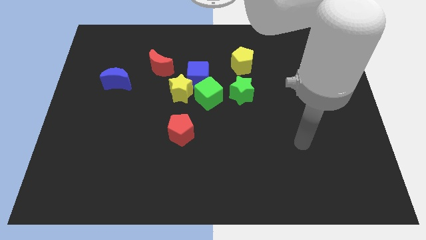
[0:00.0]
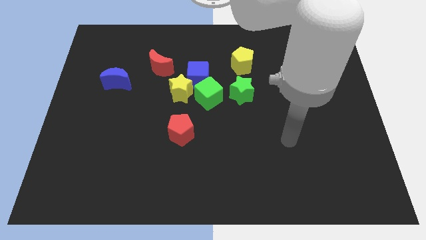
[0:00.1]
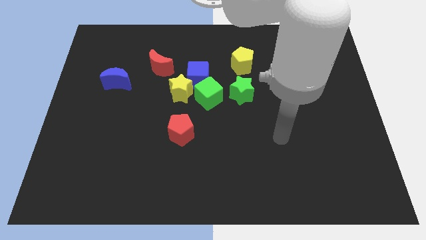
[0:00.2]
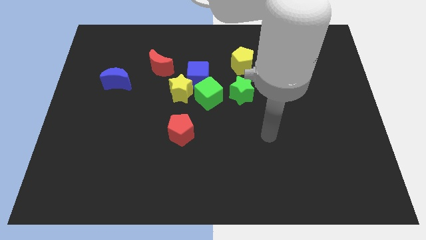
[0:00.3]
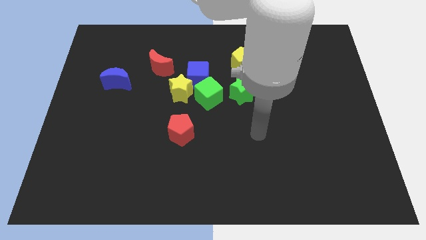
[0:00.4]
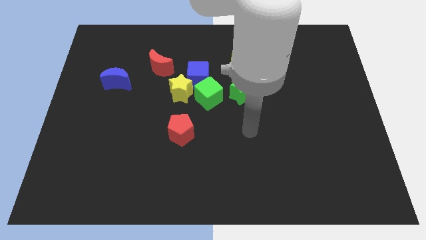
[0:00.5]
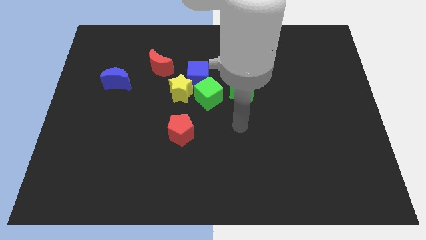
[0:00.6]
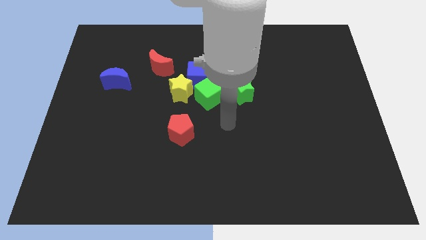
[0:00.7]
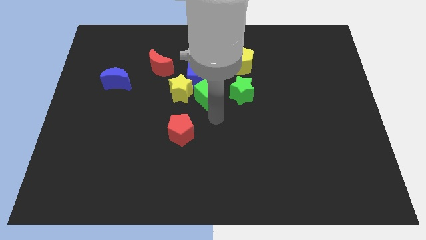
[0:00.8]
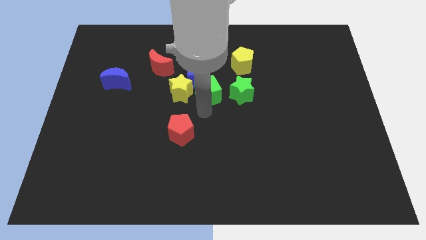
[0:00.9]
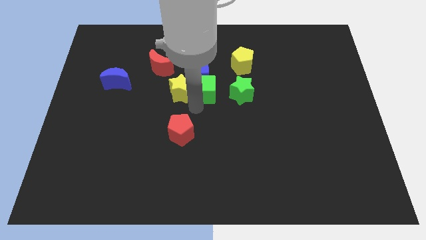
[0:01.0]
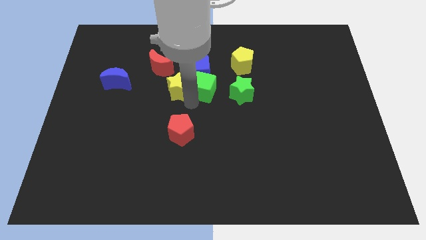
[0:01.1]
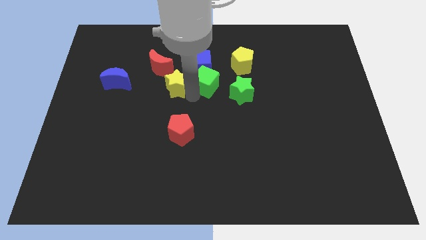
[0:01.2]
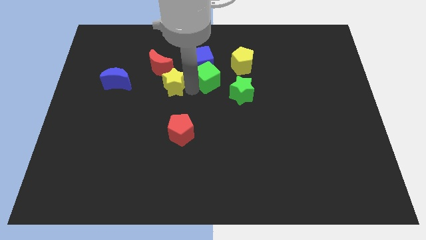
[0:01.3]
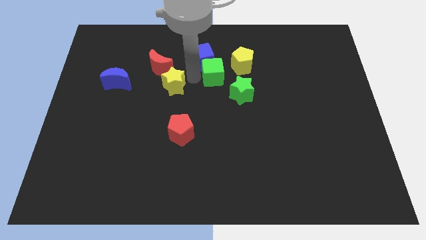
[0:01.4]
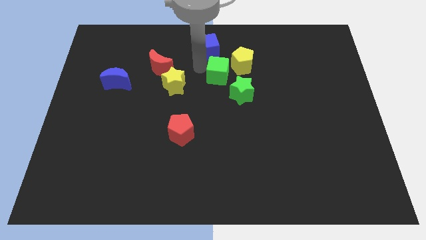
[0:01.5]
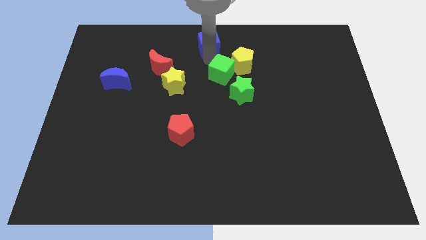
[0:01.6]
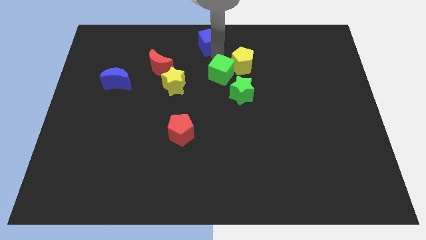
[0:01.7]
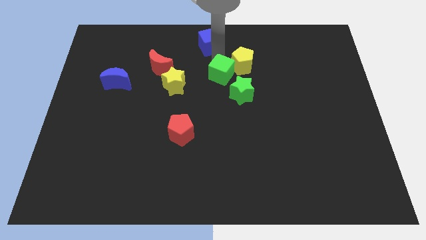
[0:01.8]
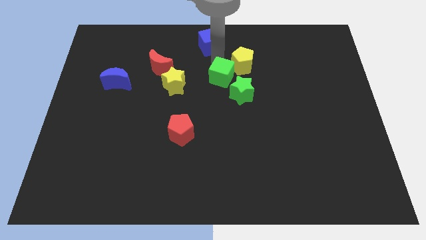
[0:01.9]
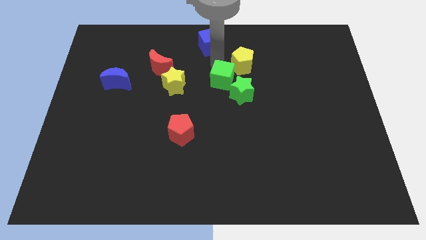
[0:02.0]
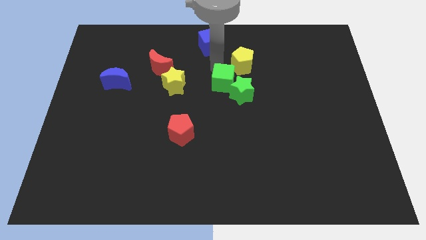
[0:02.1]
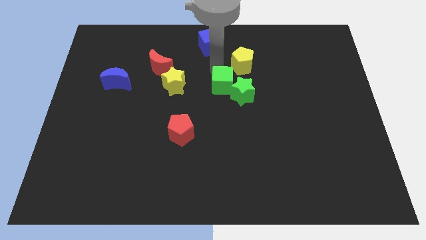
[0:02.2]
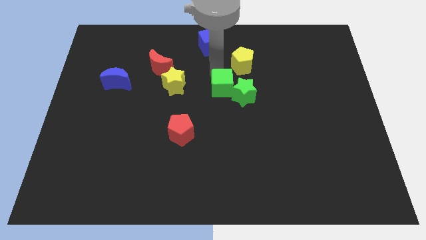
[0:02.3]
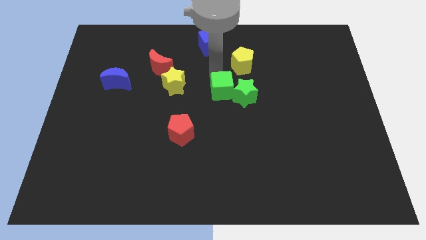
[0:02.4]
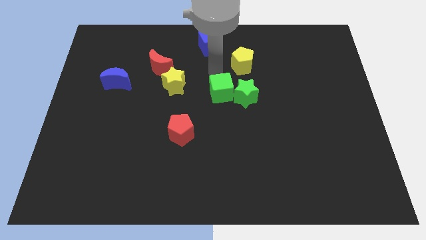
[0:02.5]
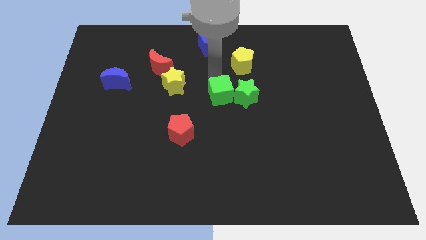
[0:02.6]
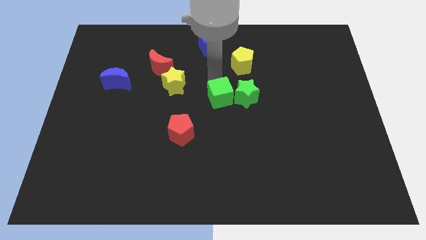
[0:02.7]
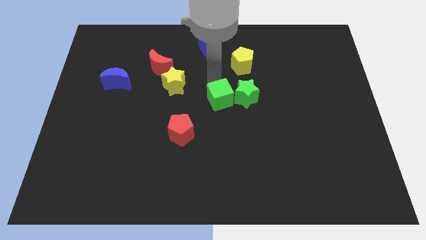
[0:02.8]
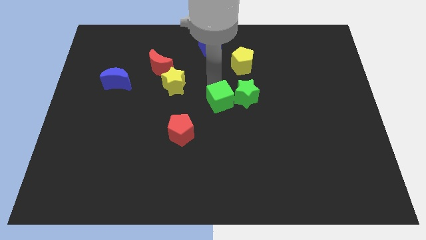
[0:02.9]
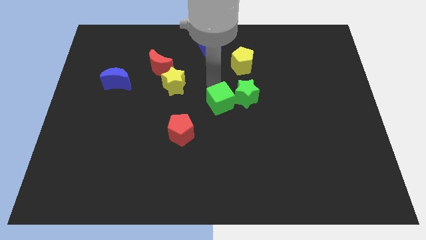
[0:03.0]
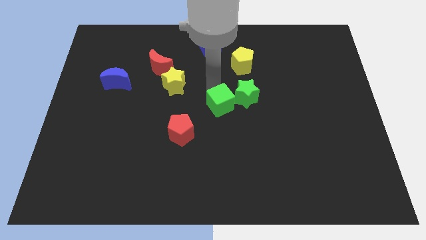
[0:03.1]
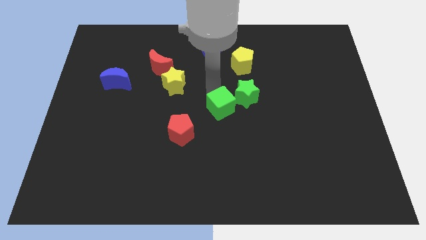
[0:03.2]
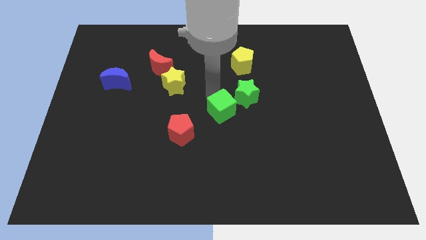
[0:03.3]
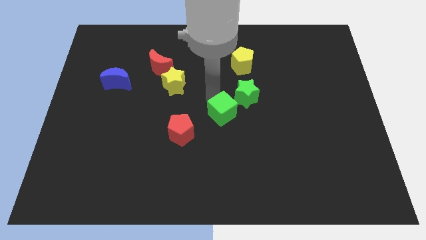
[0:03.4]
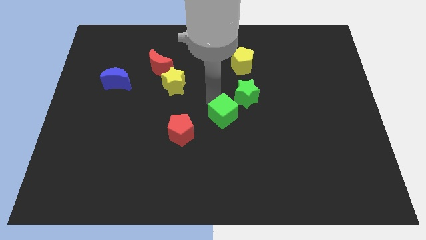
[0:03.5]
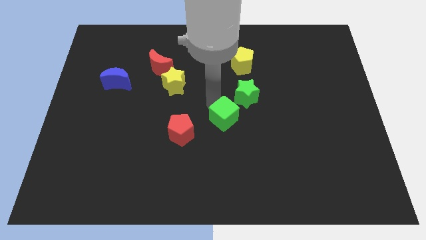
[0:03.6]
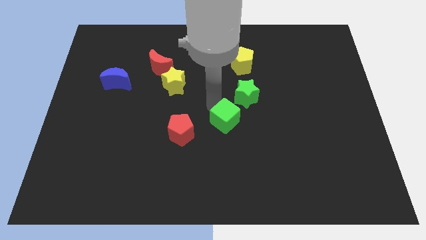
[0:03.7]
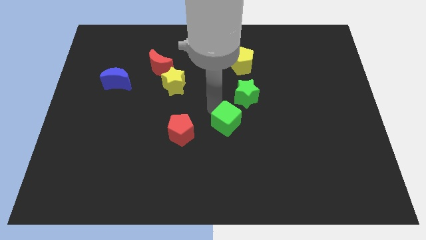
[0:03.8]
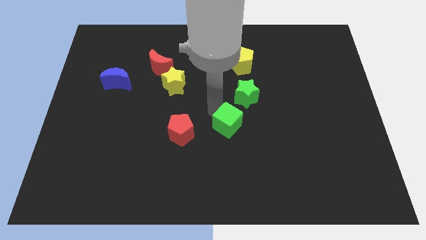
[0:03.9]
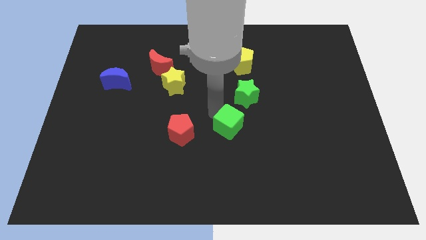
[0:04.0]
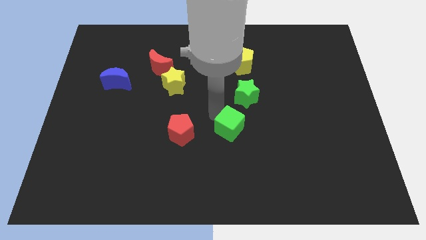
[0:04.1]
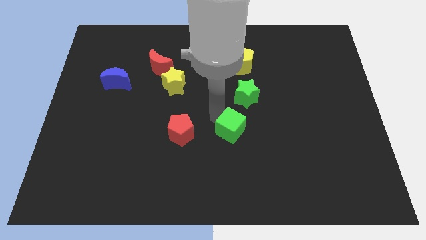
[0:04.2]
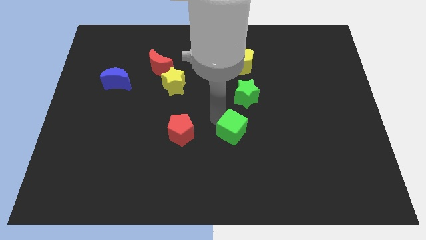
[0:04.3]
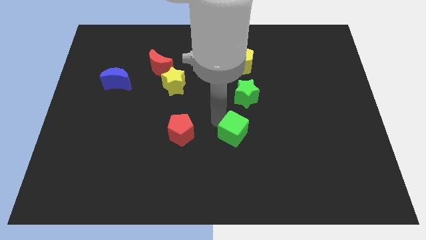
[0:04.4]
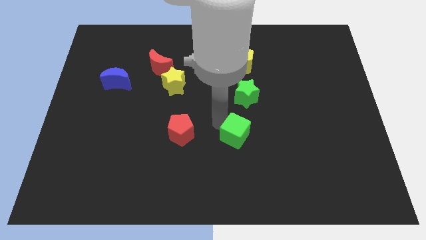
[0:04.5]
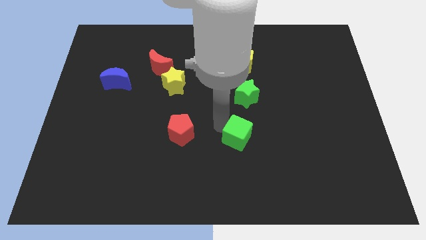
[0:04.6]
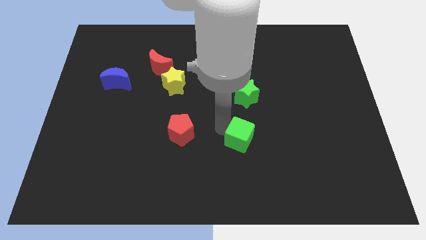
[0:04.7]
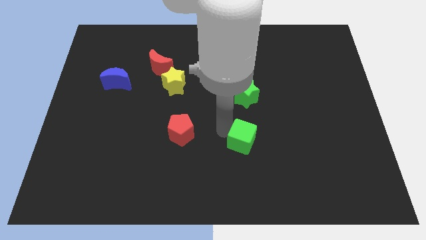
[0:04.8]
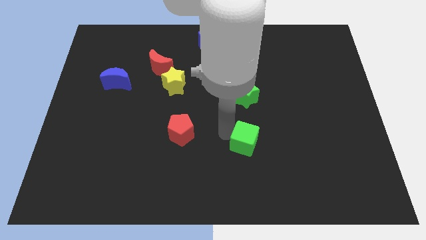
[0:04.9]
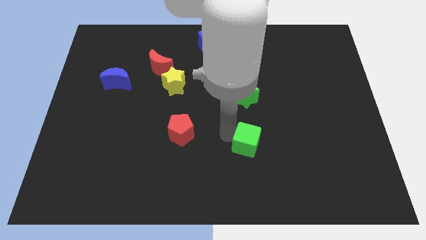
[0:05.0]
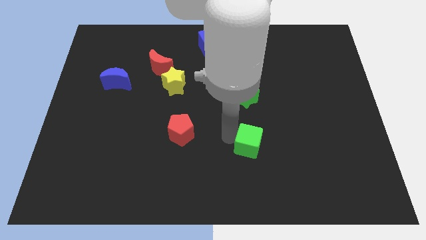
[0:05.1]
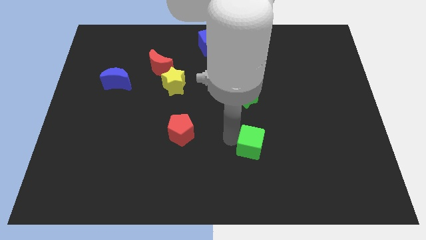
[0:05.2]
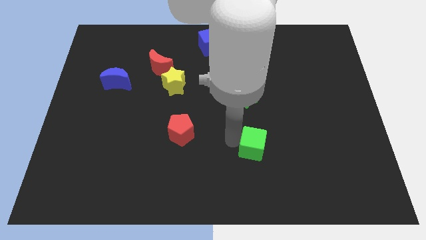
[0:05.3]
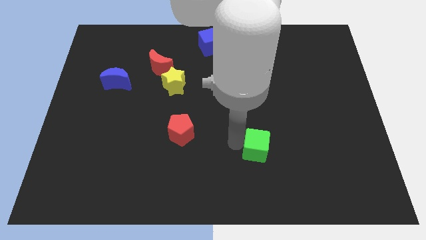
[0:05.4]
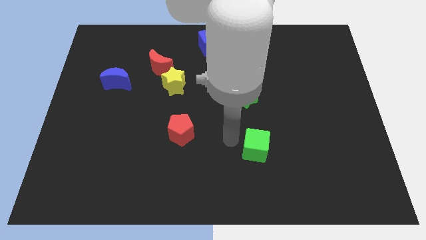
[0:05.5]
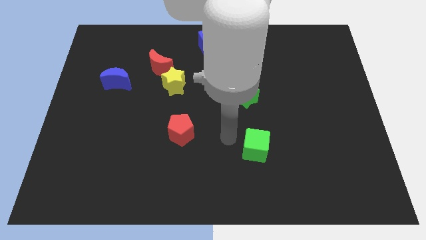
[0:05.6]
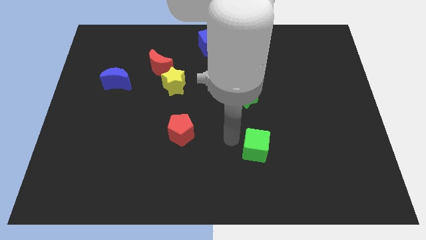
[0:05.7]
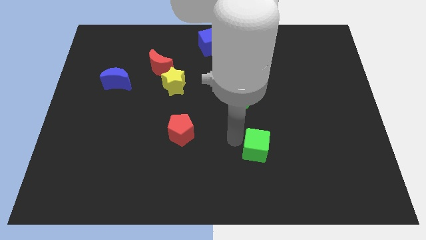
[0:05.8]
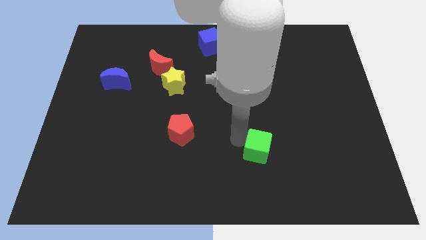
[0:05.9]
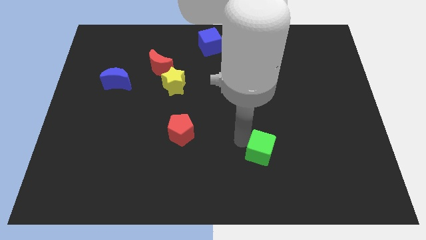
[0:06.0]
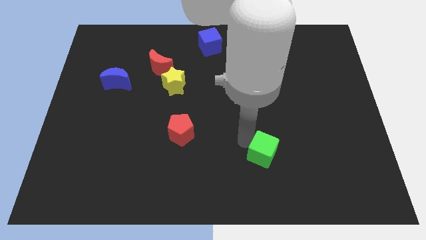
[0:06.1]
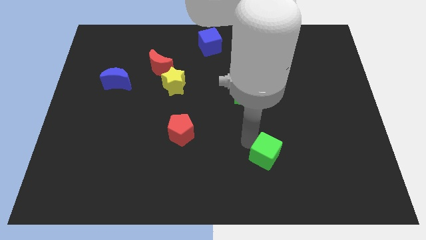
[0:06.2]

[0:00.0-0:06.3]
push the green cube downwards and right

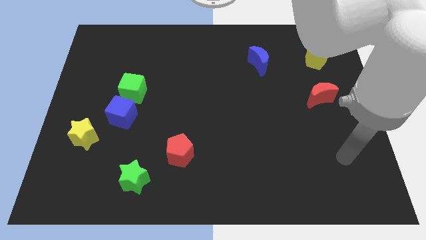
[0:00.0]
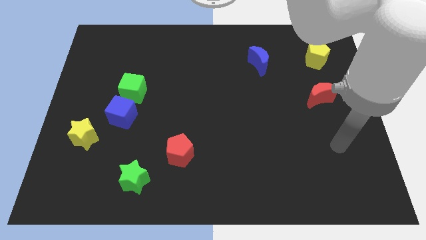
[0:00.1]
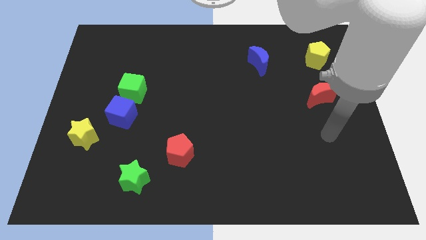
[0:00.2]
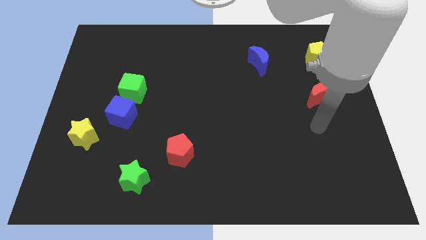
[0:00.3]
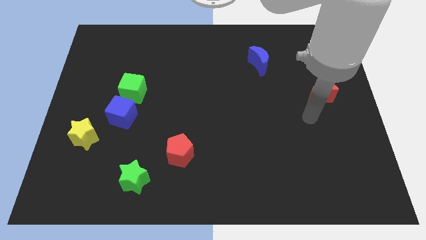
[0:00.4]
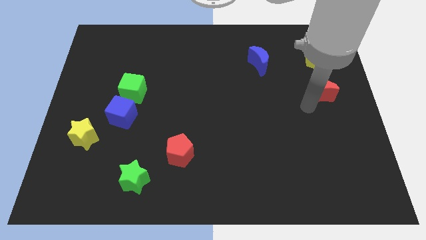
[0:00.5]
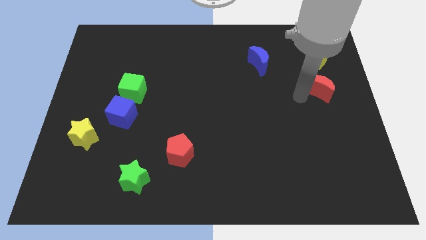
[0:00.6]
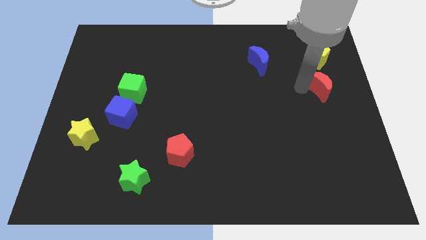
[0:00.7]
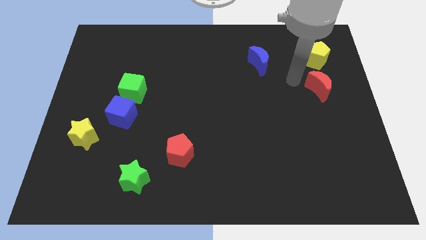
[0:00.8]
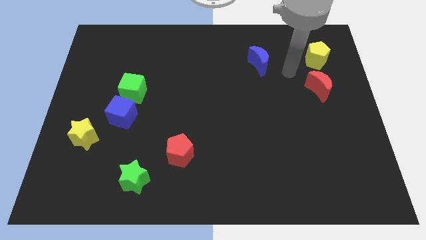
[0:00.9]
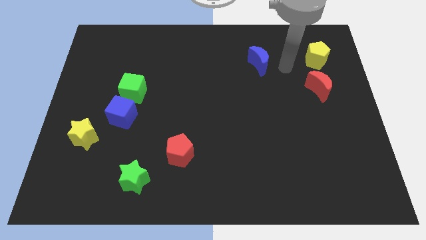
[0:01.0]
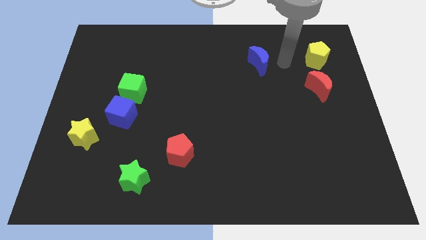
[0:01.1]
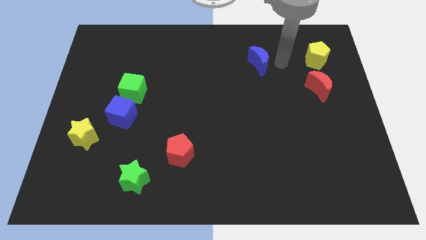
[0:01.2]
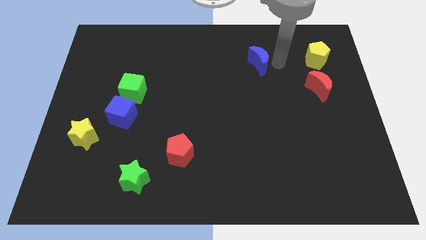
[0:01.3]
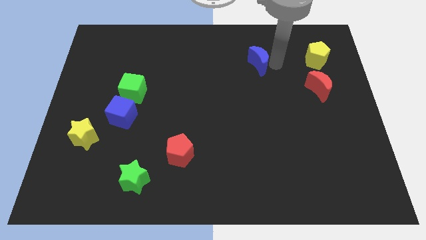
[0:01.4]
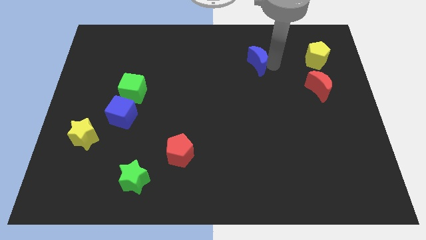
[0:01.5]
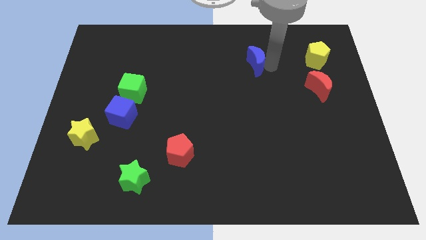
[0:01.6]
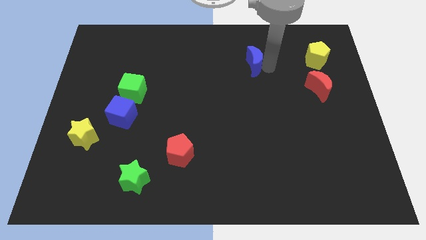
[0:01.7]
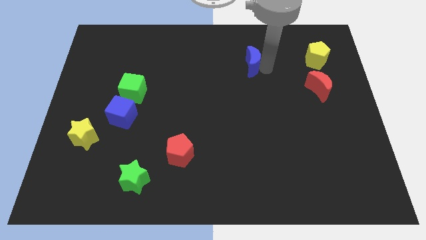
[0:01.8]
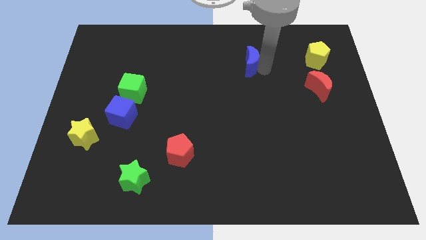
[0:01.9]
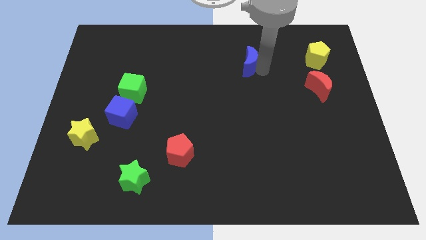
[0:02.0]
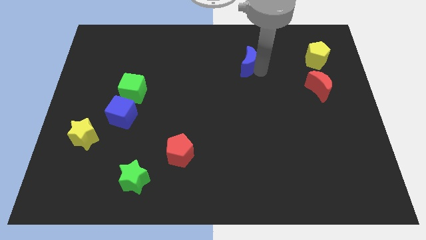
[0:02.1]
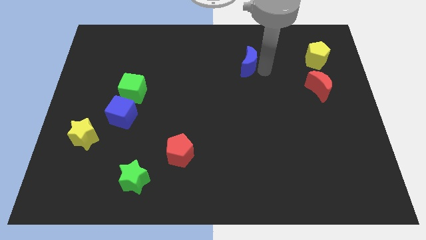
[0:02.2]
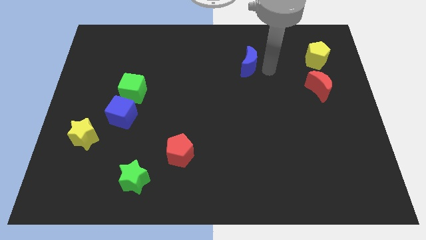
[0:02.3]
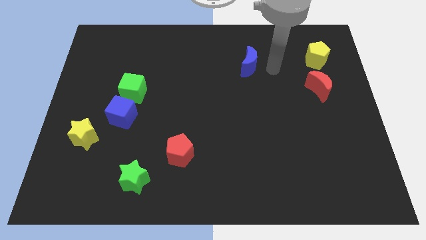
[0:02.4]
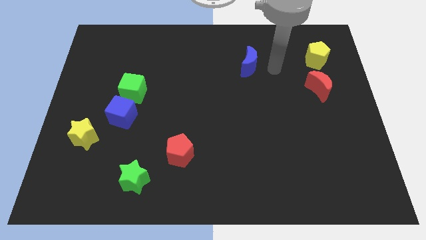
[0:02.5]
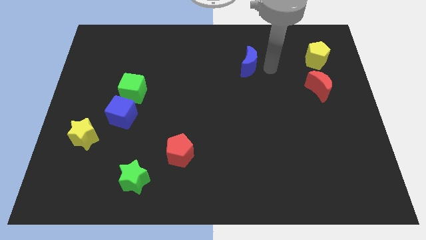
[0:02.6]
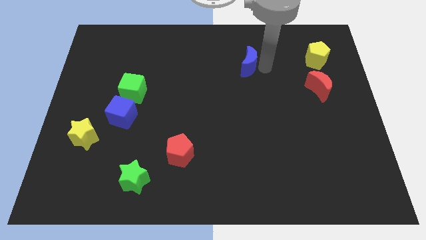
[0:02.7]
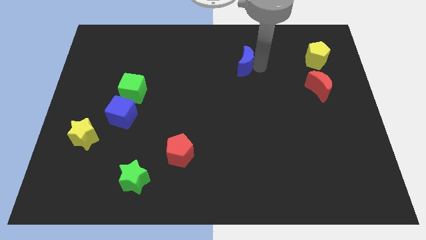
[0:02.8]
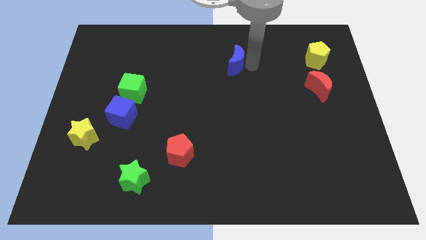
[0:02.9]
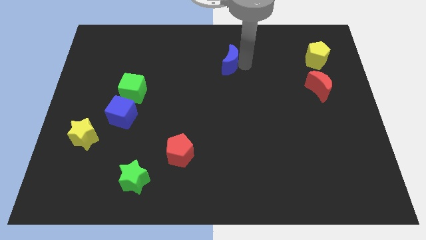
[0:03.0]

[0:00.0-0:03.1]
move the blue moon left a little bit
